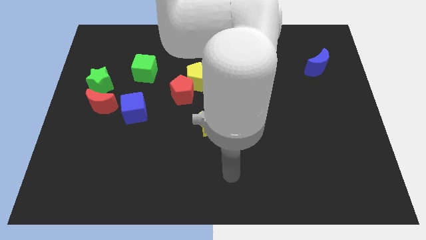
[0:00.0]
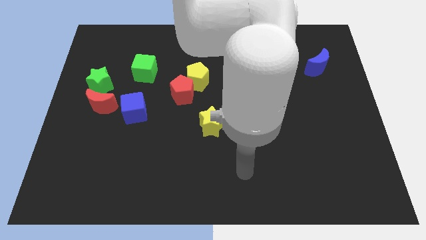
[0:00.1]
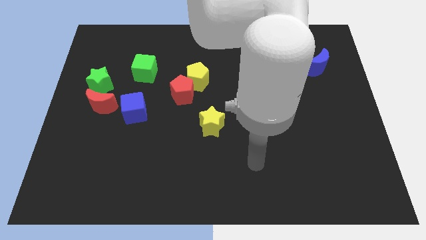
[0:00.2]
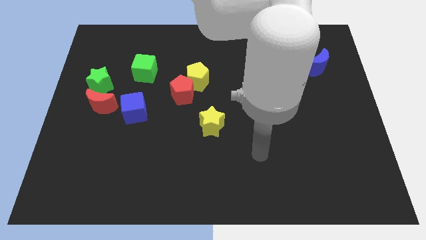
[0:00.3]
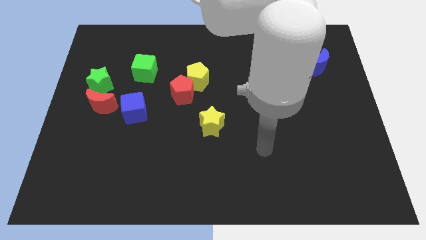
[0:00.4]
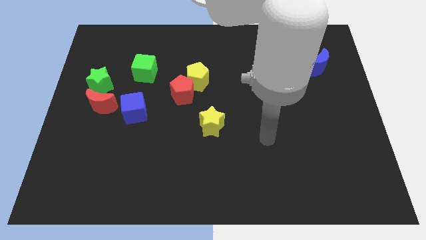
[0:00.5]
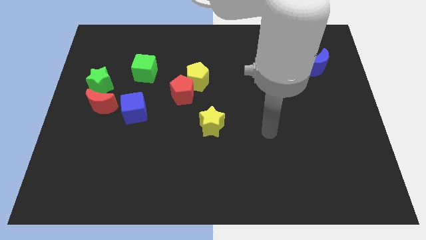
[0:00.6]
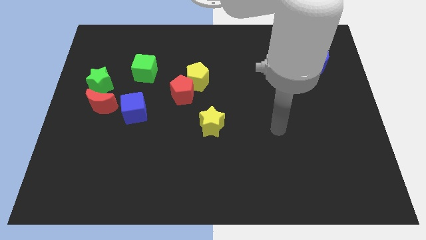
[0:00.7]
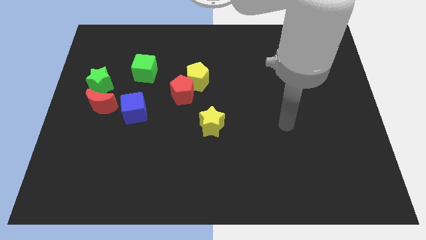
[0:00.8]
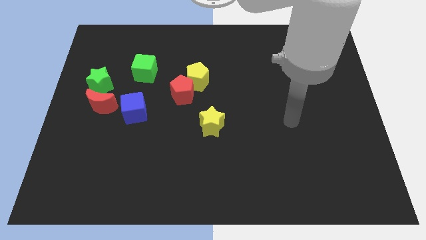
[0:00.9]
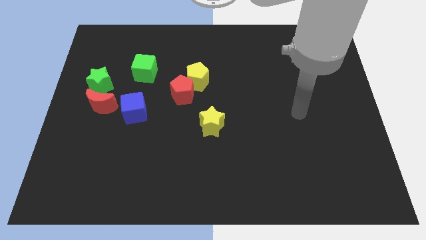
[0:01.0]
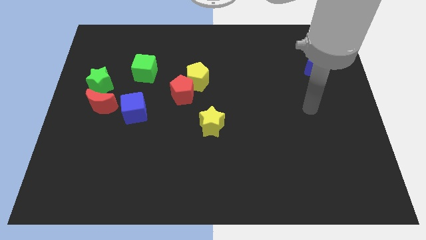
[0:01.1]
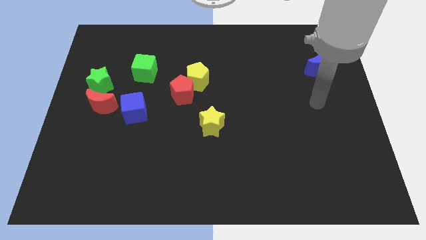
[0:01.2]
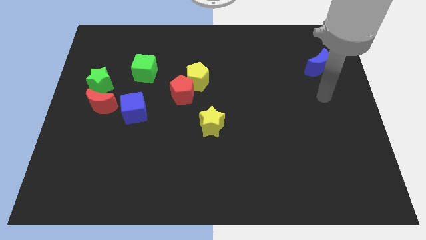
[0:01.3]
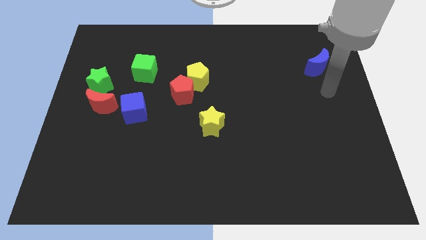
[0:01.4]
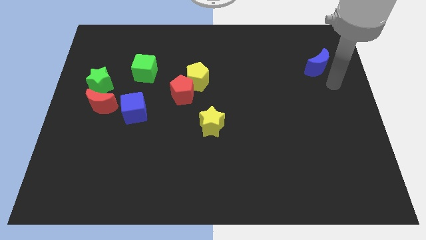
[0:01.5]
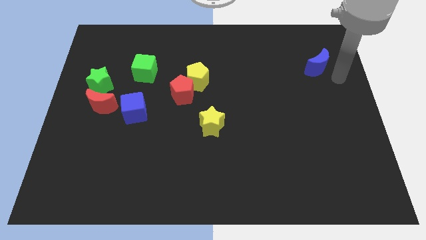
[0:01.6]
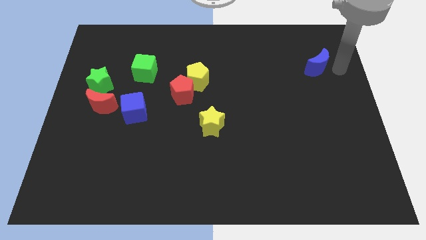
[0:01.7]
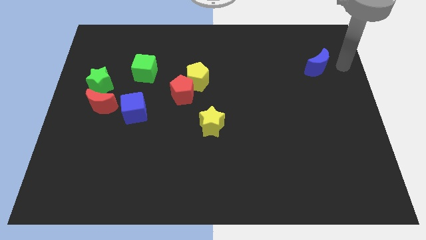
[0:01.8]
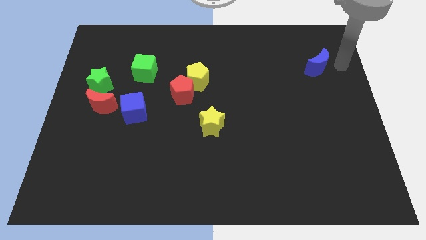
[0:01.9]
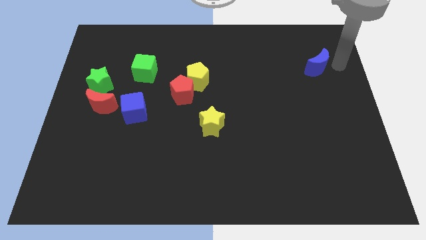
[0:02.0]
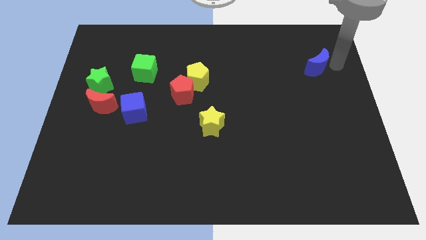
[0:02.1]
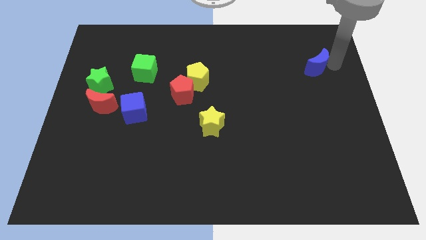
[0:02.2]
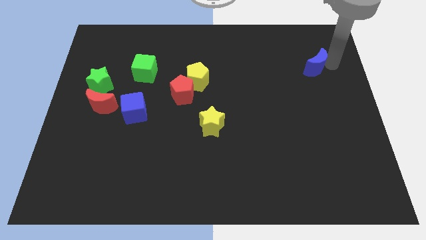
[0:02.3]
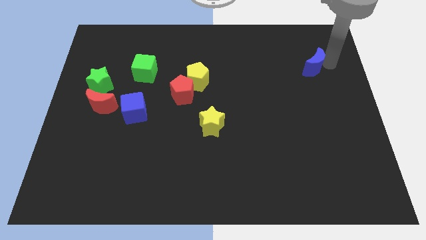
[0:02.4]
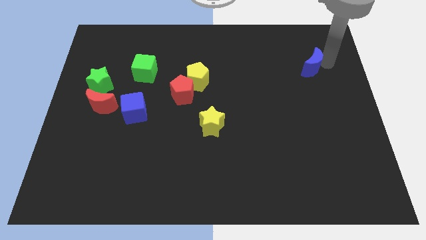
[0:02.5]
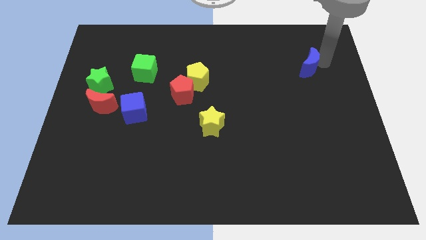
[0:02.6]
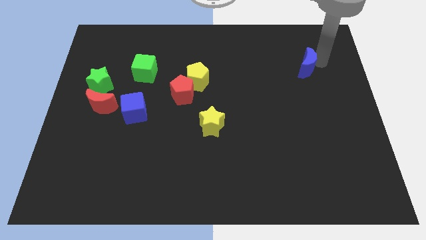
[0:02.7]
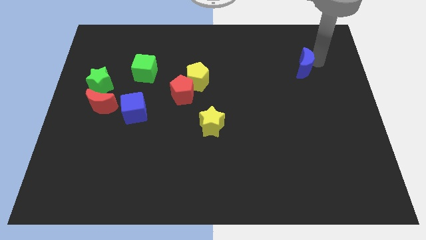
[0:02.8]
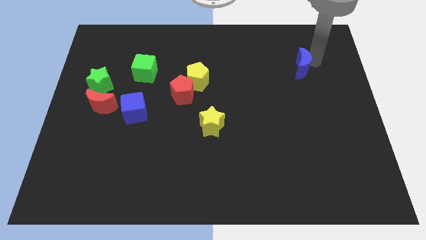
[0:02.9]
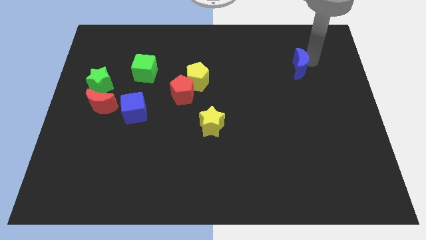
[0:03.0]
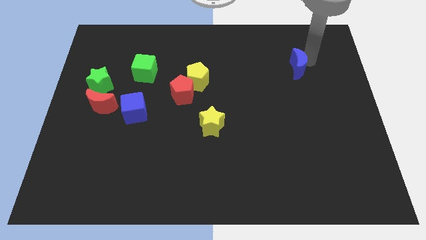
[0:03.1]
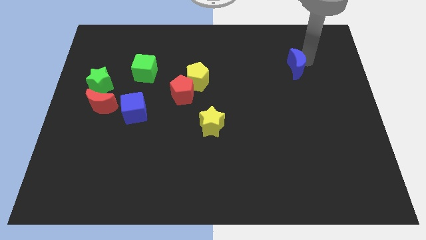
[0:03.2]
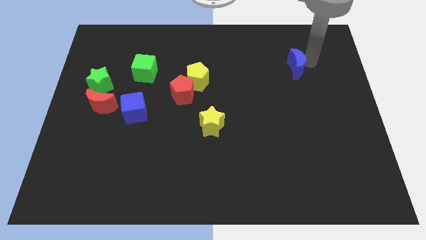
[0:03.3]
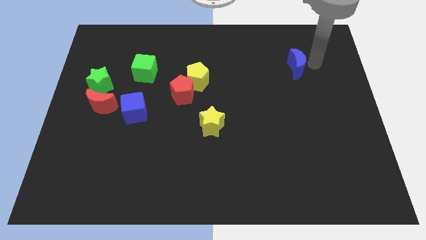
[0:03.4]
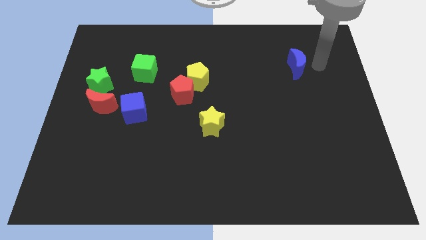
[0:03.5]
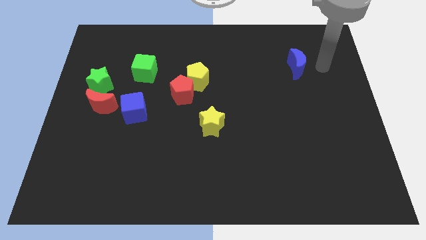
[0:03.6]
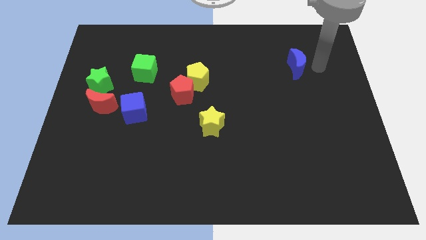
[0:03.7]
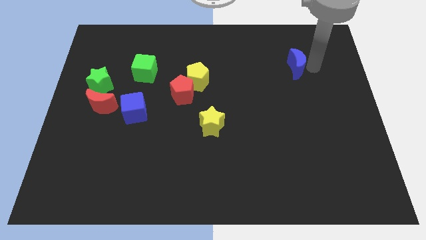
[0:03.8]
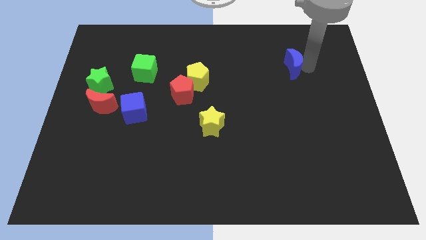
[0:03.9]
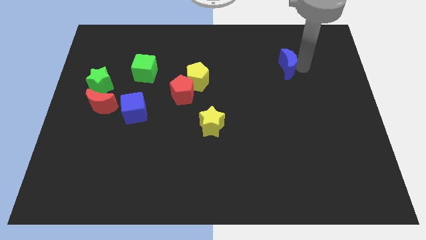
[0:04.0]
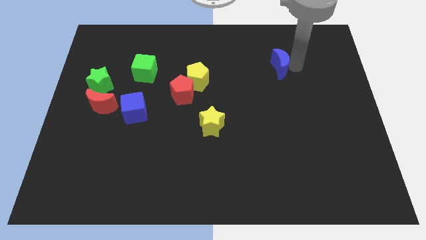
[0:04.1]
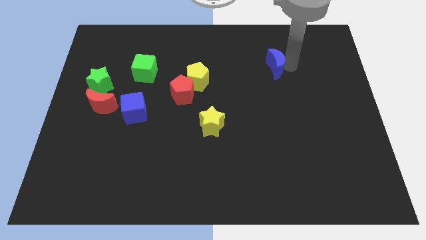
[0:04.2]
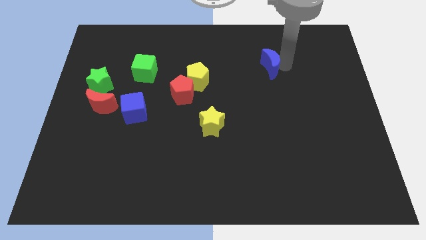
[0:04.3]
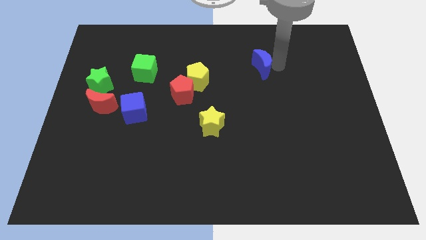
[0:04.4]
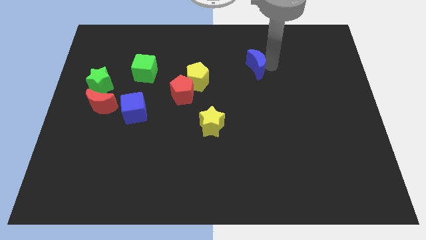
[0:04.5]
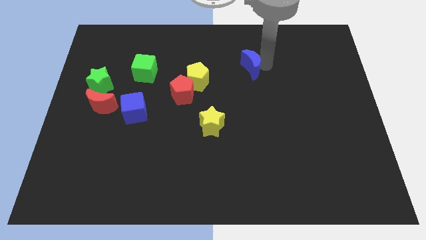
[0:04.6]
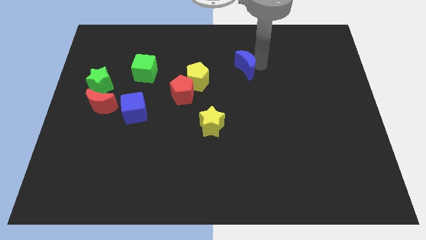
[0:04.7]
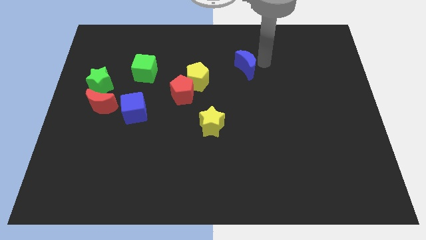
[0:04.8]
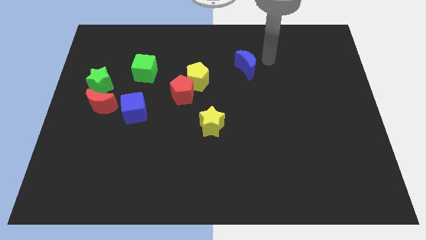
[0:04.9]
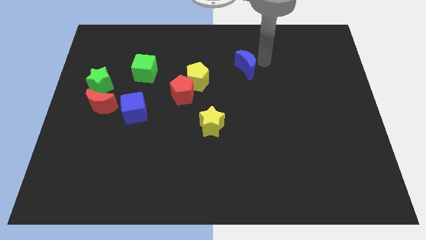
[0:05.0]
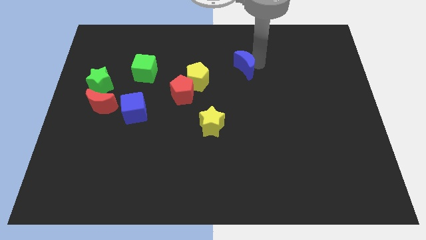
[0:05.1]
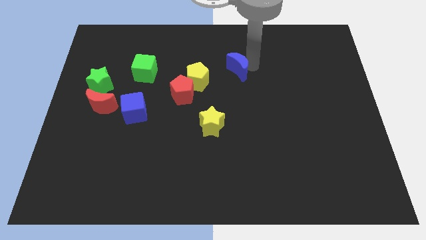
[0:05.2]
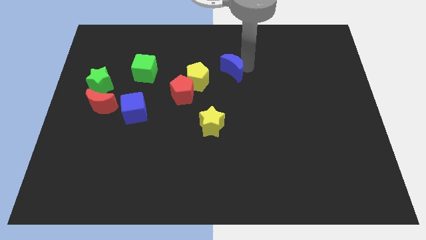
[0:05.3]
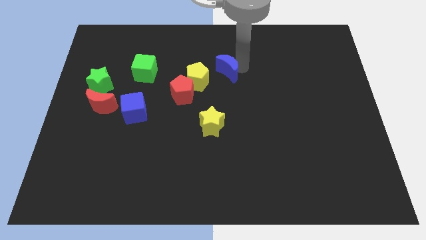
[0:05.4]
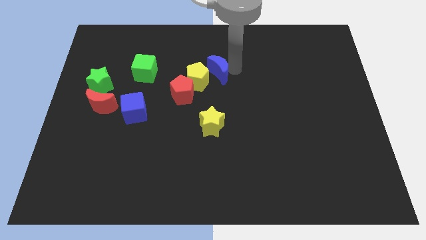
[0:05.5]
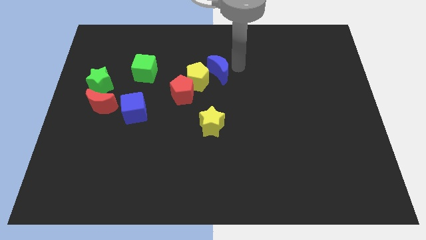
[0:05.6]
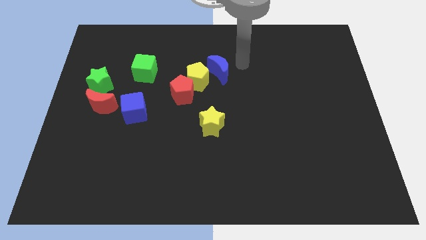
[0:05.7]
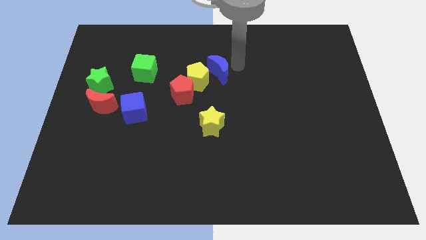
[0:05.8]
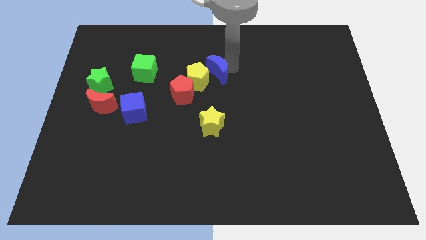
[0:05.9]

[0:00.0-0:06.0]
slide the blue moon close to the yellow pentagon

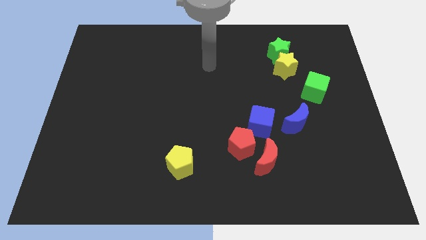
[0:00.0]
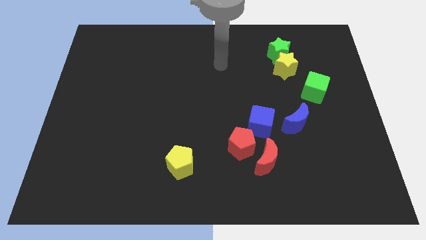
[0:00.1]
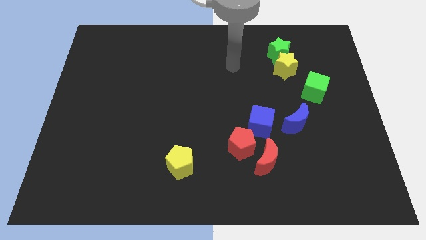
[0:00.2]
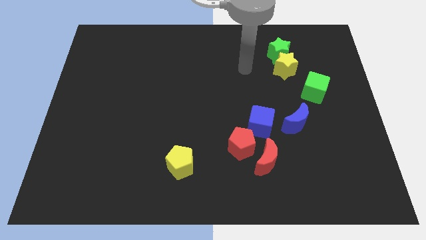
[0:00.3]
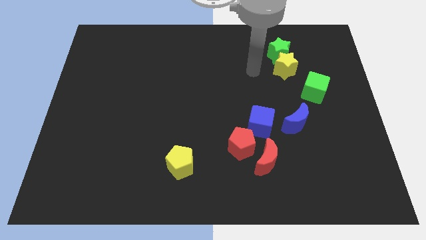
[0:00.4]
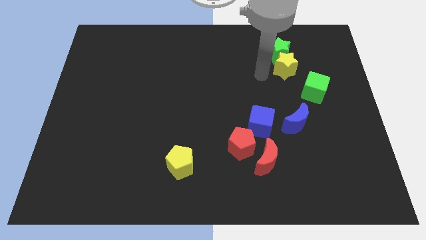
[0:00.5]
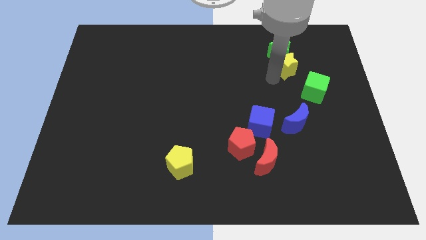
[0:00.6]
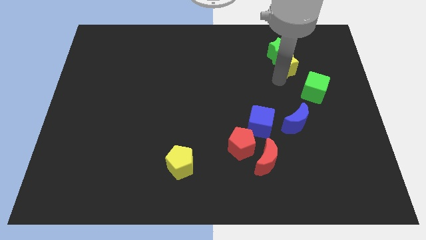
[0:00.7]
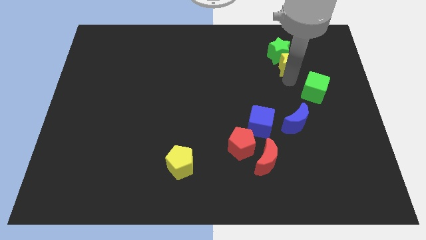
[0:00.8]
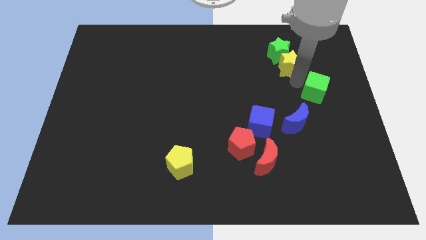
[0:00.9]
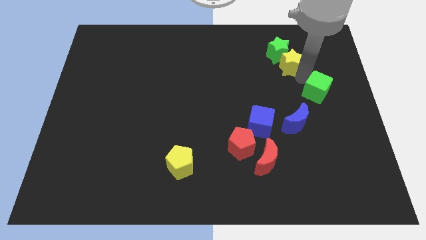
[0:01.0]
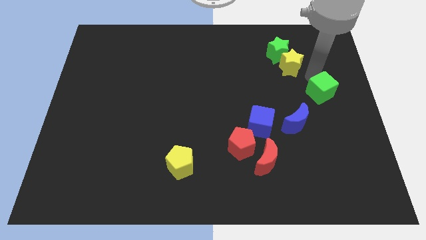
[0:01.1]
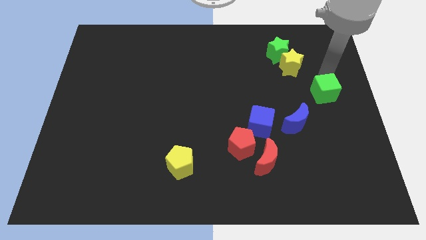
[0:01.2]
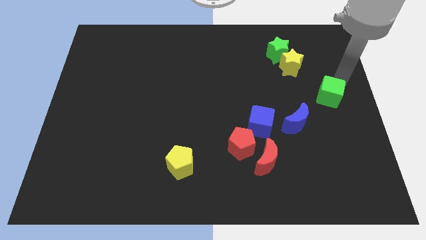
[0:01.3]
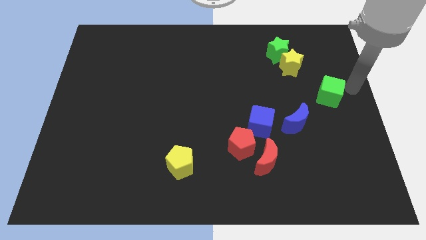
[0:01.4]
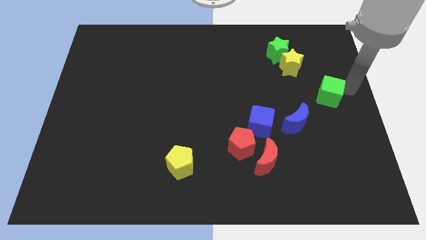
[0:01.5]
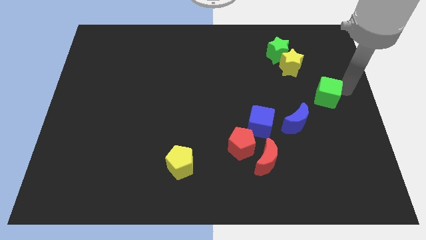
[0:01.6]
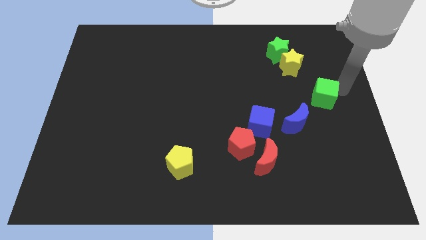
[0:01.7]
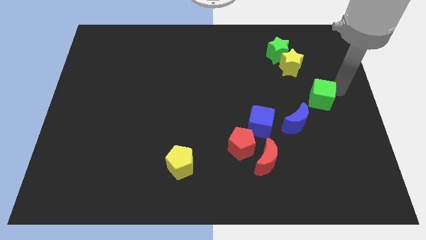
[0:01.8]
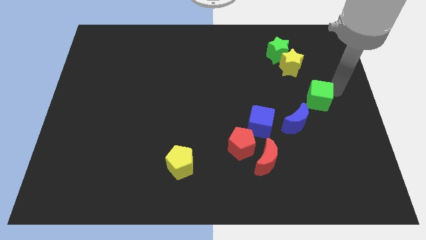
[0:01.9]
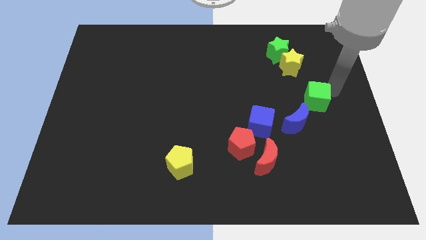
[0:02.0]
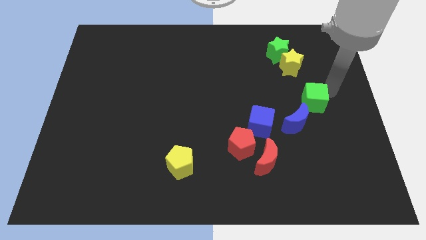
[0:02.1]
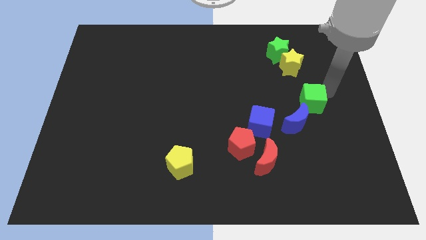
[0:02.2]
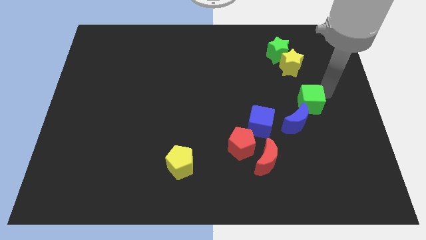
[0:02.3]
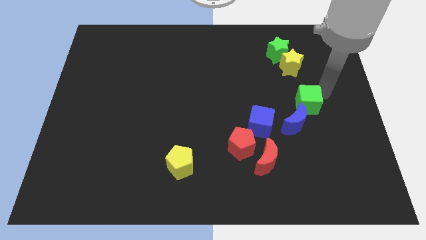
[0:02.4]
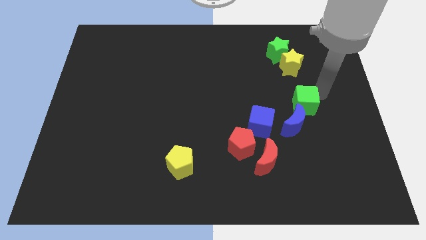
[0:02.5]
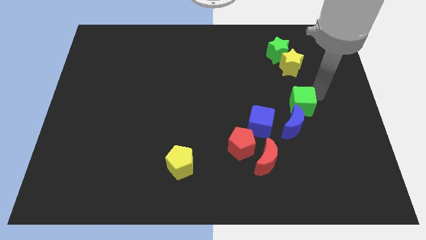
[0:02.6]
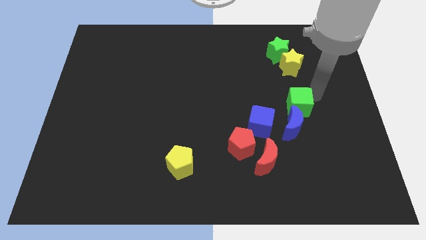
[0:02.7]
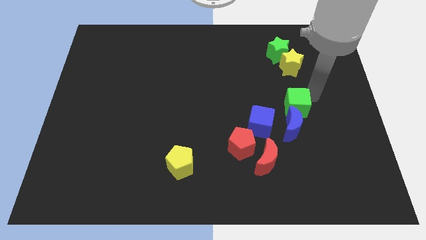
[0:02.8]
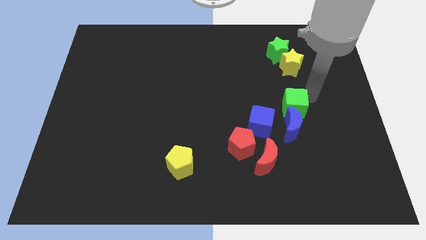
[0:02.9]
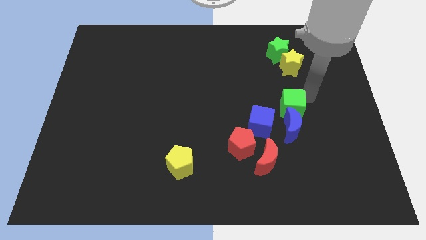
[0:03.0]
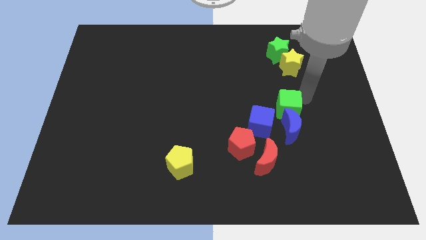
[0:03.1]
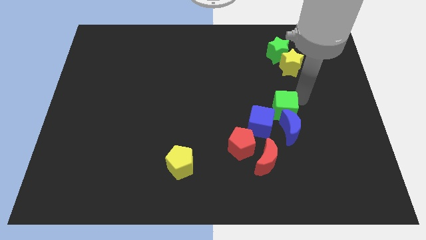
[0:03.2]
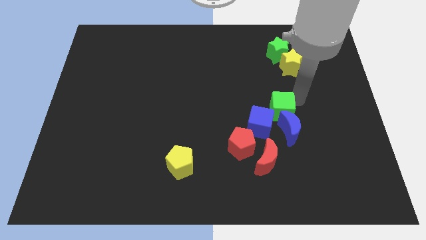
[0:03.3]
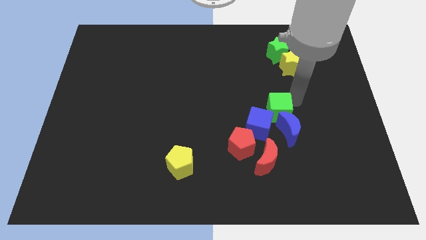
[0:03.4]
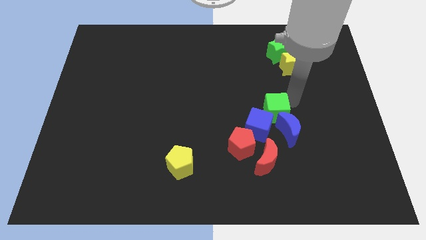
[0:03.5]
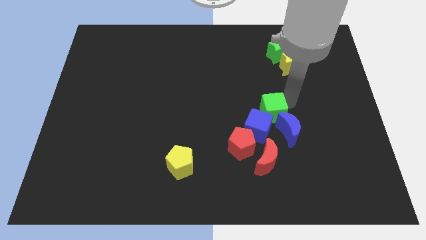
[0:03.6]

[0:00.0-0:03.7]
slide the green cube close to the blue cube
